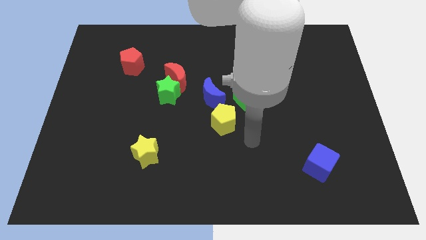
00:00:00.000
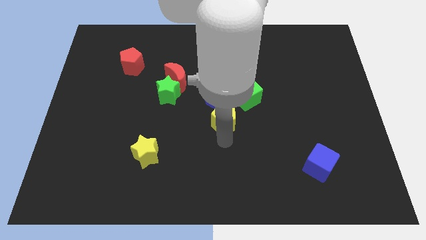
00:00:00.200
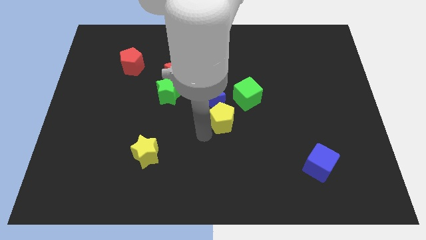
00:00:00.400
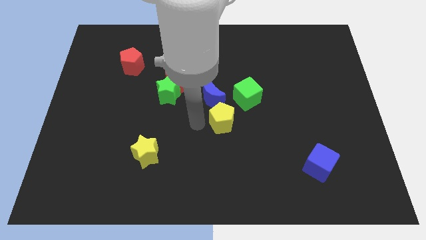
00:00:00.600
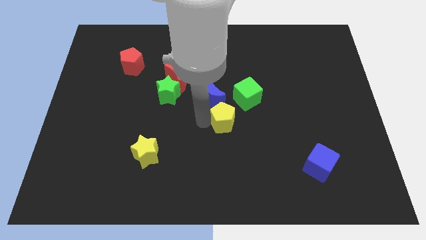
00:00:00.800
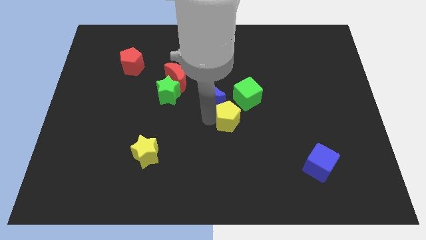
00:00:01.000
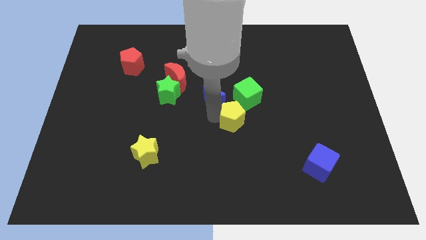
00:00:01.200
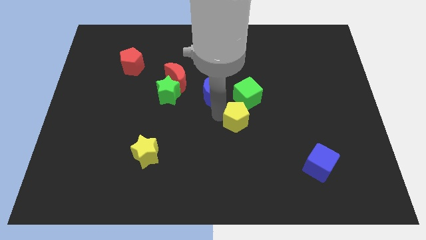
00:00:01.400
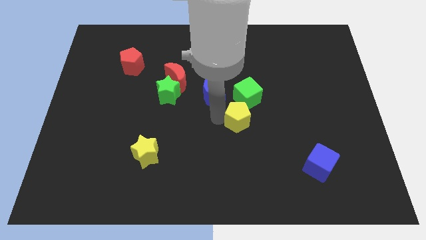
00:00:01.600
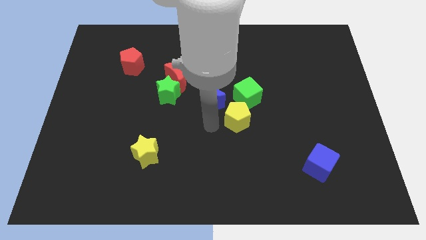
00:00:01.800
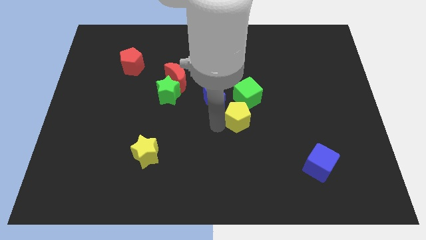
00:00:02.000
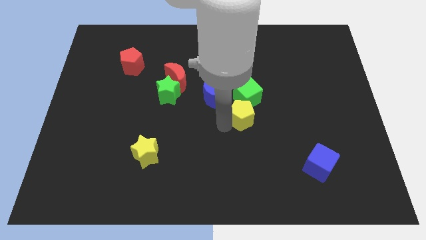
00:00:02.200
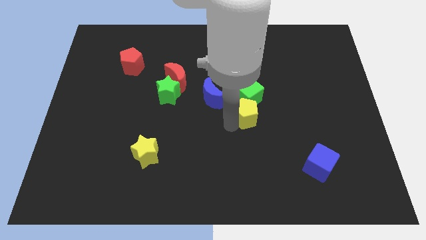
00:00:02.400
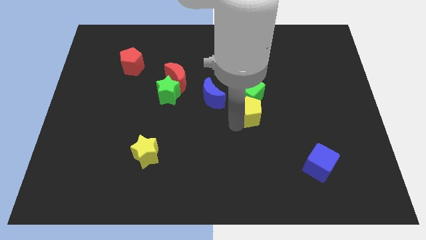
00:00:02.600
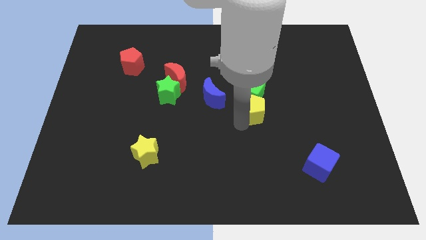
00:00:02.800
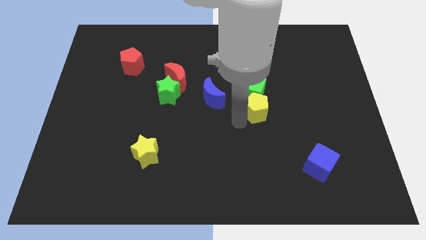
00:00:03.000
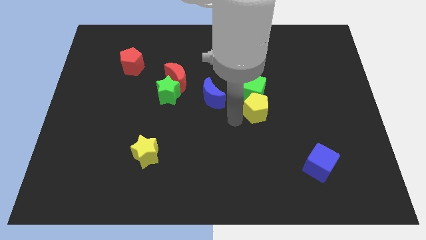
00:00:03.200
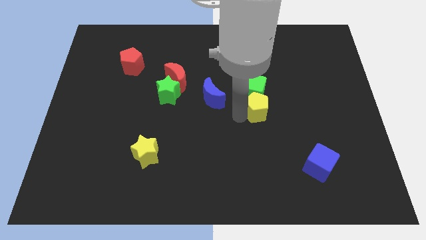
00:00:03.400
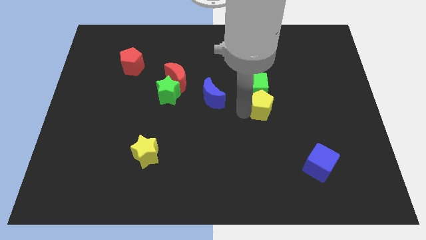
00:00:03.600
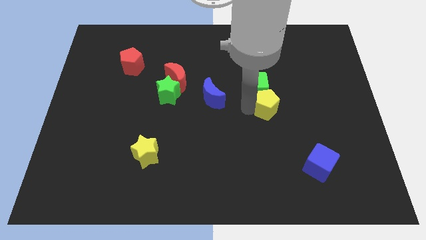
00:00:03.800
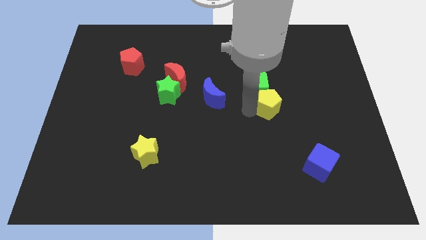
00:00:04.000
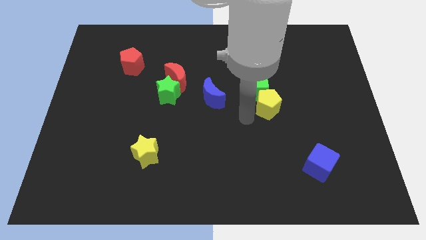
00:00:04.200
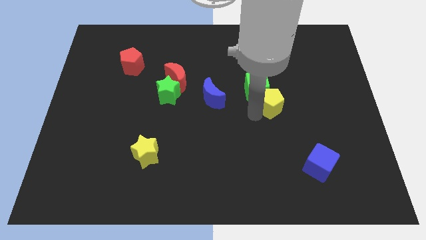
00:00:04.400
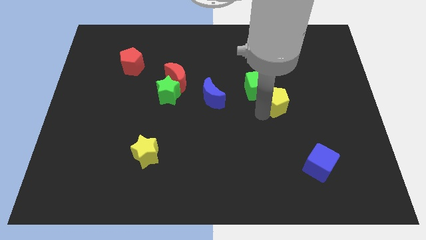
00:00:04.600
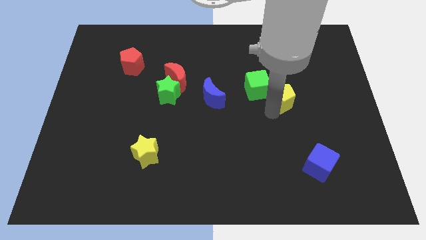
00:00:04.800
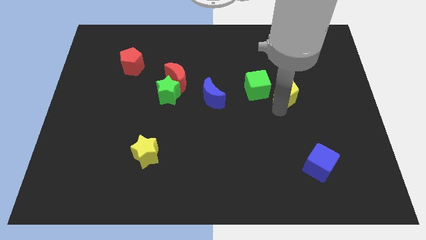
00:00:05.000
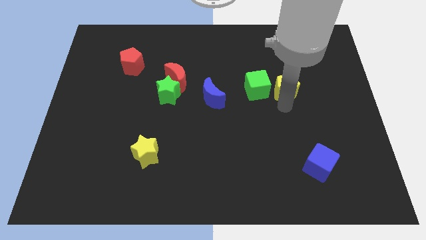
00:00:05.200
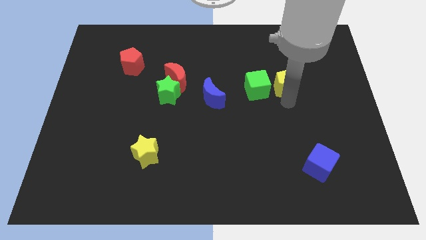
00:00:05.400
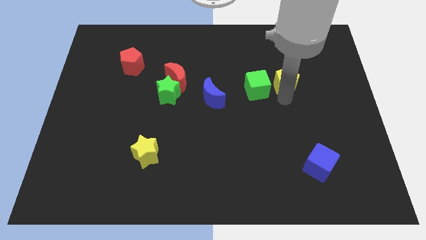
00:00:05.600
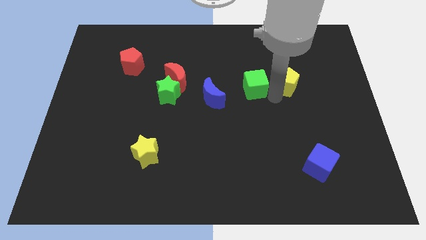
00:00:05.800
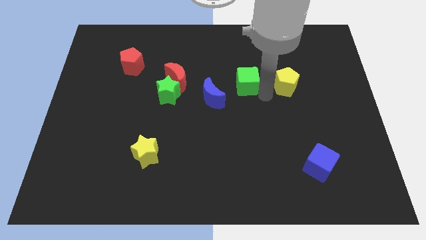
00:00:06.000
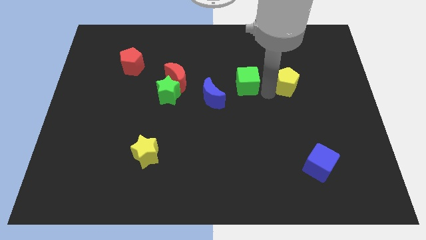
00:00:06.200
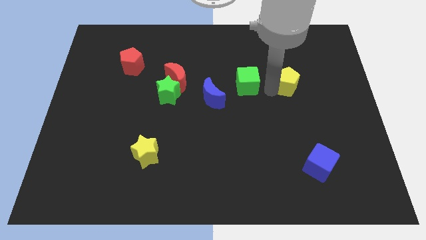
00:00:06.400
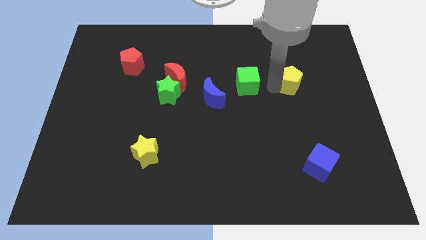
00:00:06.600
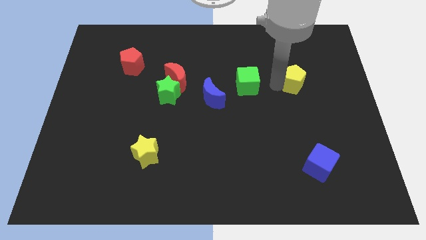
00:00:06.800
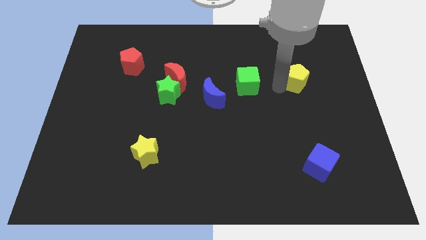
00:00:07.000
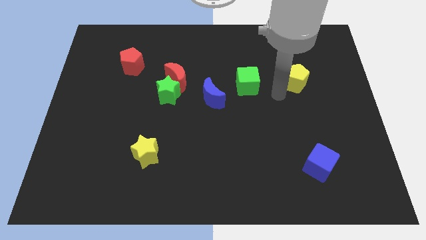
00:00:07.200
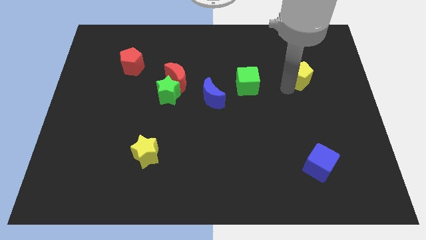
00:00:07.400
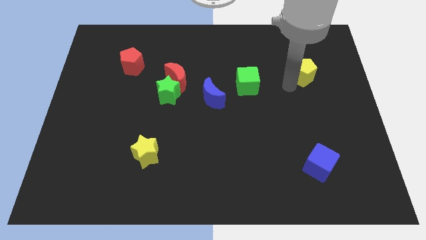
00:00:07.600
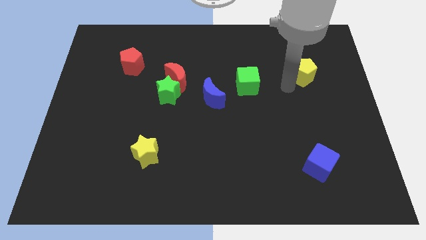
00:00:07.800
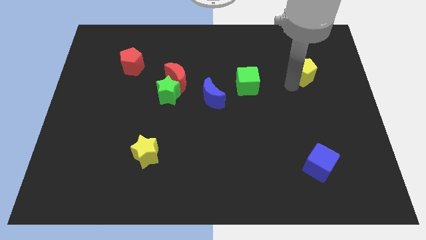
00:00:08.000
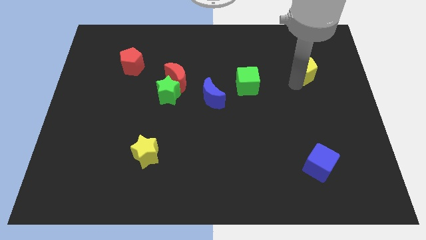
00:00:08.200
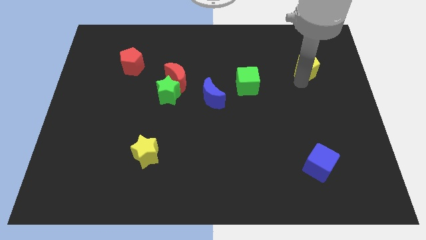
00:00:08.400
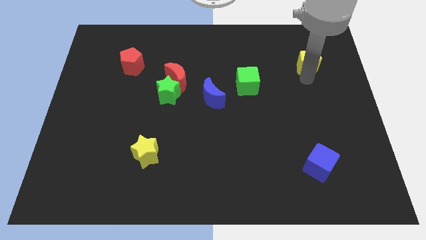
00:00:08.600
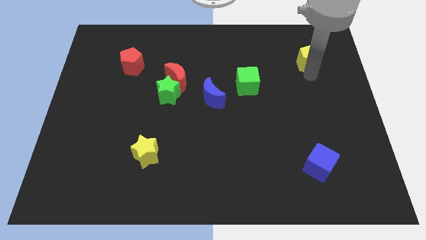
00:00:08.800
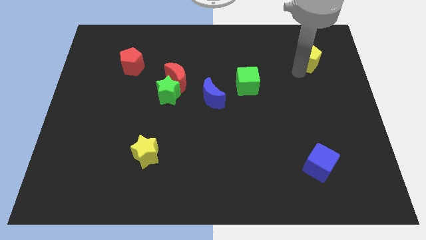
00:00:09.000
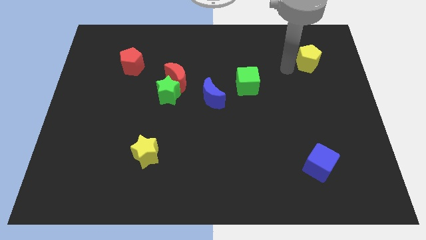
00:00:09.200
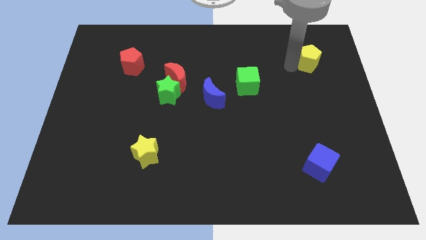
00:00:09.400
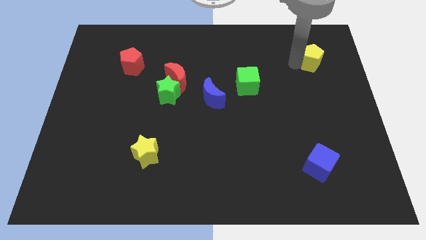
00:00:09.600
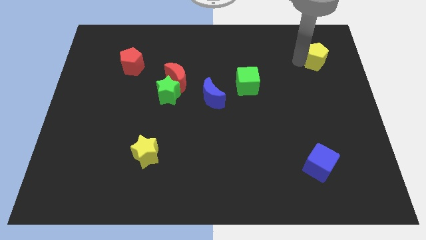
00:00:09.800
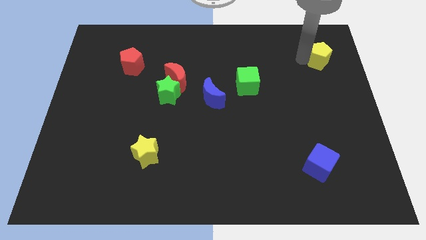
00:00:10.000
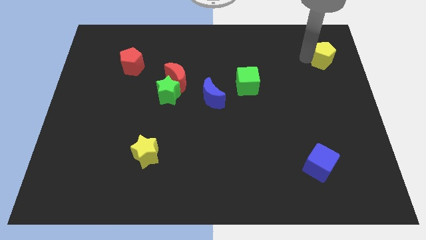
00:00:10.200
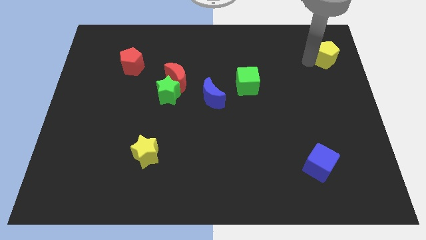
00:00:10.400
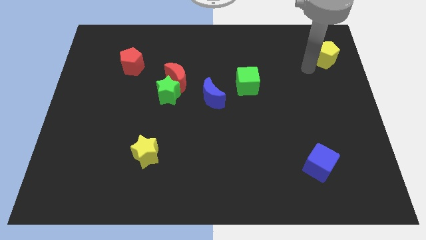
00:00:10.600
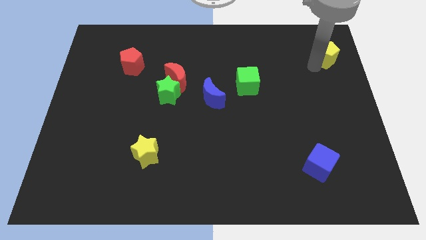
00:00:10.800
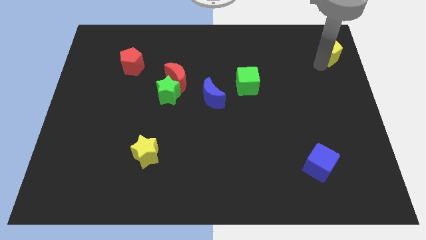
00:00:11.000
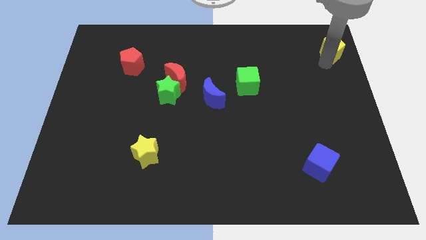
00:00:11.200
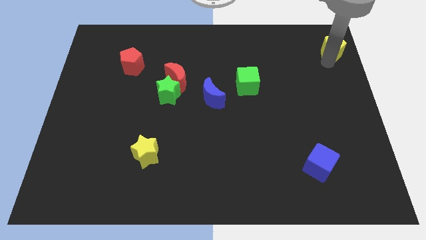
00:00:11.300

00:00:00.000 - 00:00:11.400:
move the yellow pentagon to the top right

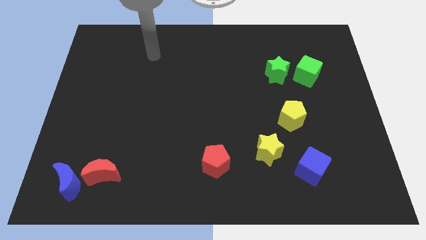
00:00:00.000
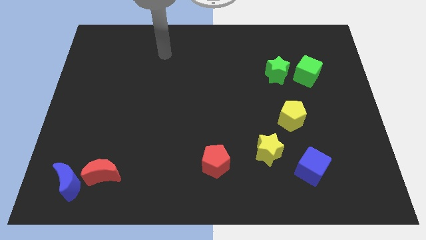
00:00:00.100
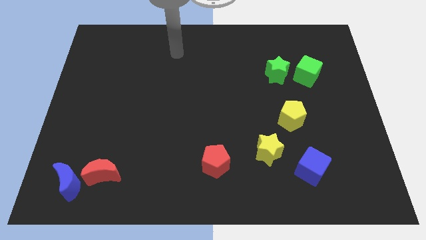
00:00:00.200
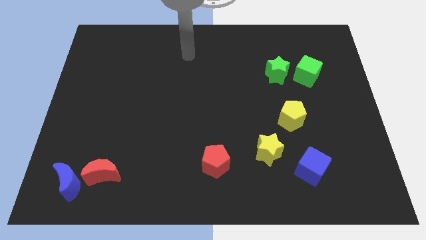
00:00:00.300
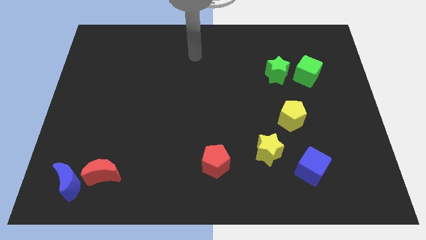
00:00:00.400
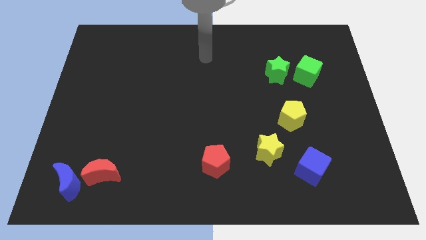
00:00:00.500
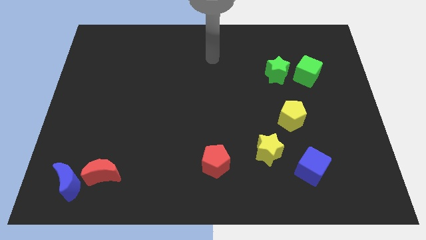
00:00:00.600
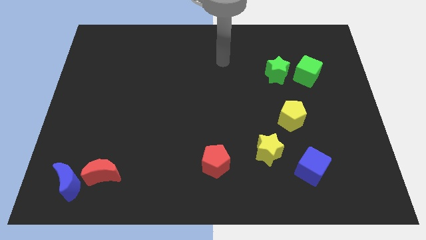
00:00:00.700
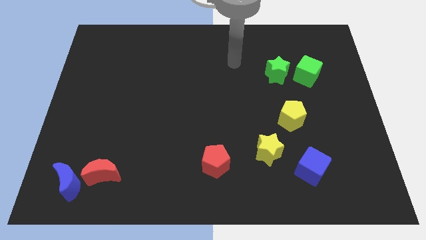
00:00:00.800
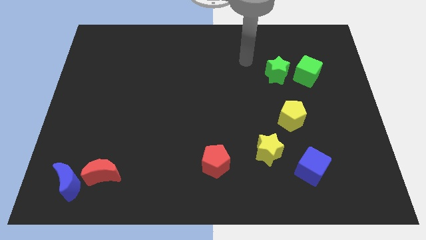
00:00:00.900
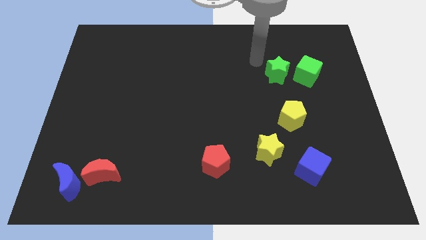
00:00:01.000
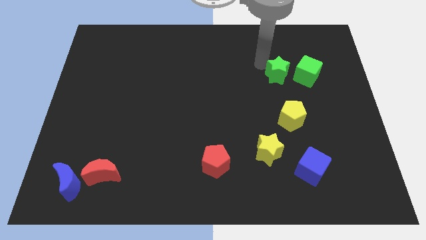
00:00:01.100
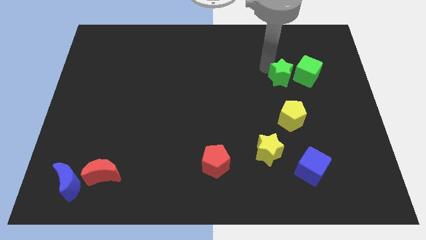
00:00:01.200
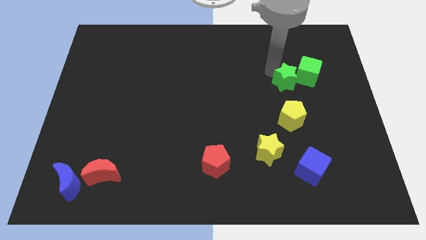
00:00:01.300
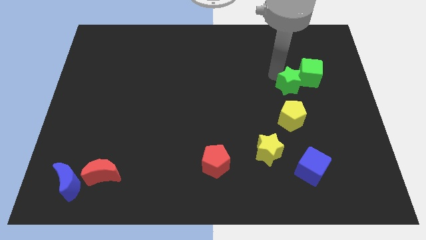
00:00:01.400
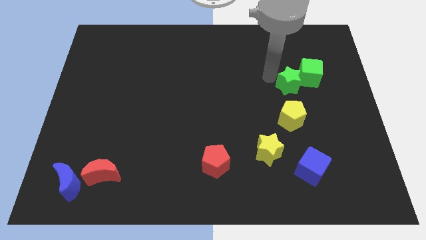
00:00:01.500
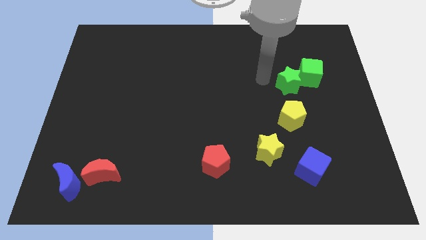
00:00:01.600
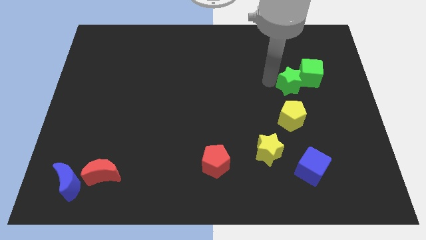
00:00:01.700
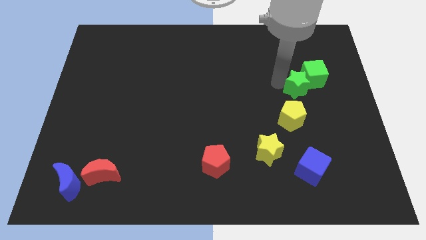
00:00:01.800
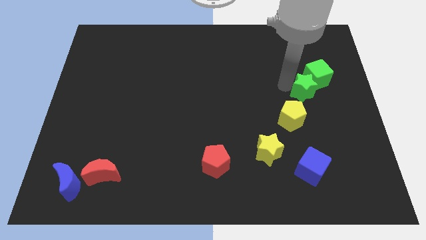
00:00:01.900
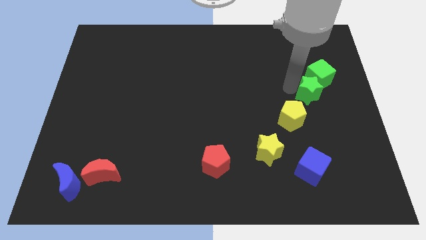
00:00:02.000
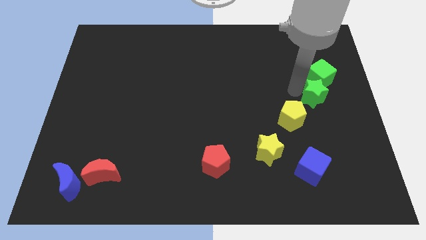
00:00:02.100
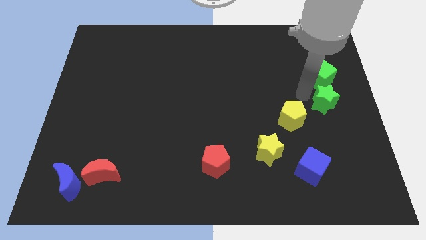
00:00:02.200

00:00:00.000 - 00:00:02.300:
push the green star to the right side of the board
